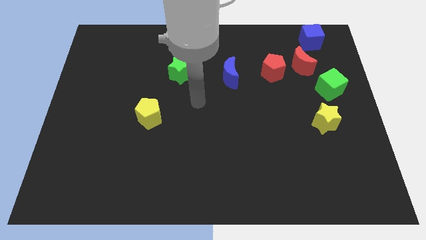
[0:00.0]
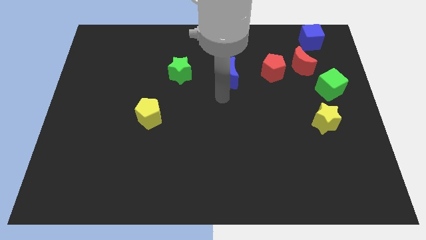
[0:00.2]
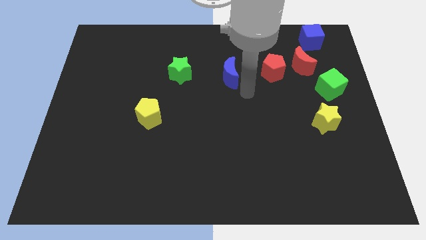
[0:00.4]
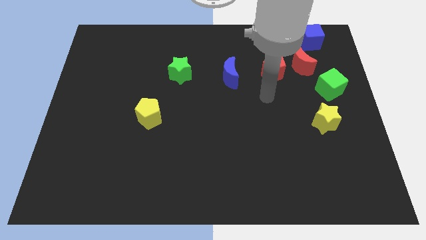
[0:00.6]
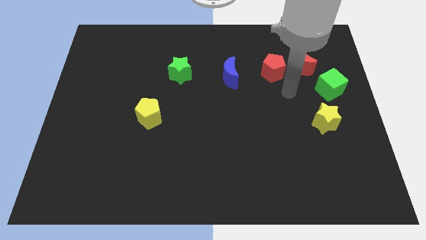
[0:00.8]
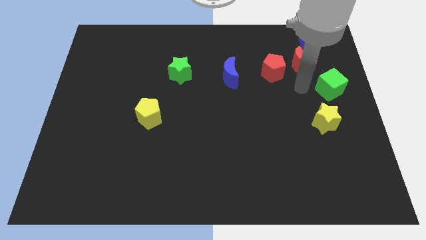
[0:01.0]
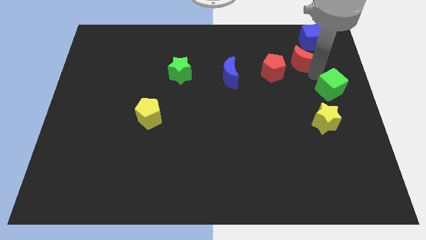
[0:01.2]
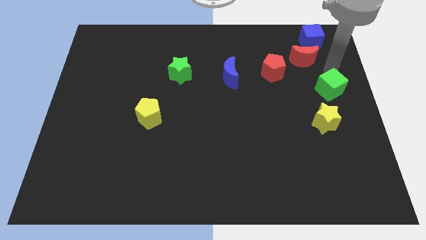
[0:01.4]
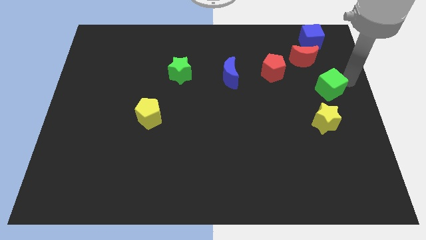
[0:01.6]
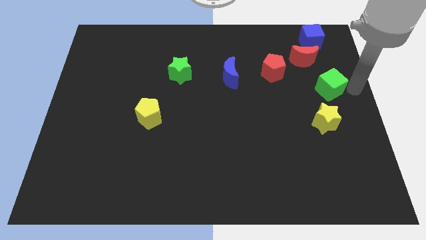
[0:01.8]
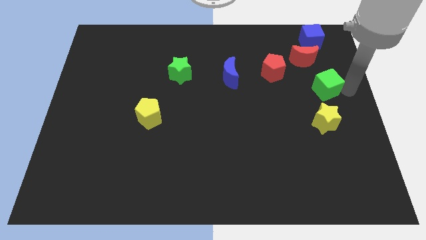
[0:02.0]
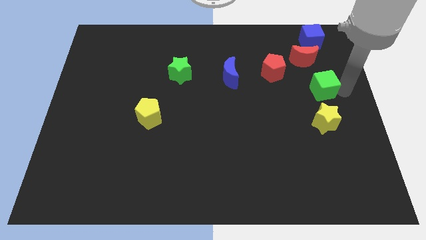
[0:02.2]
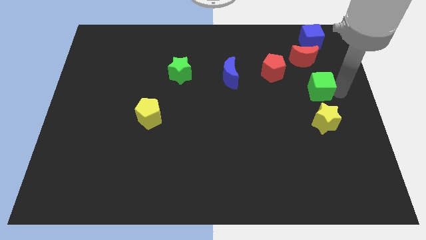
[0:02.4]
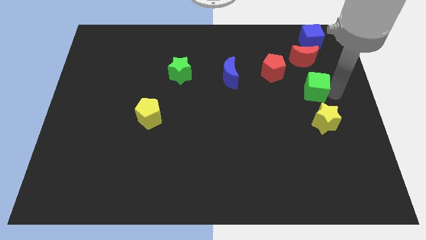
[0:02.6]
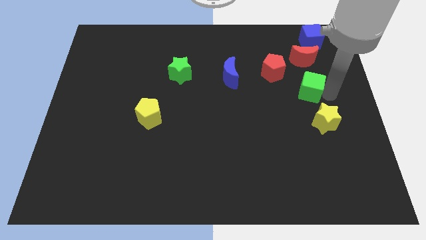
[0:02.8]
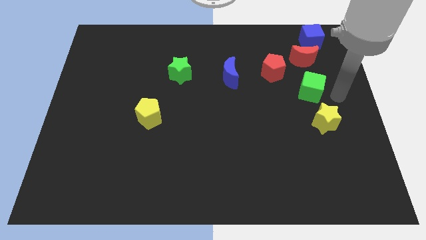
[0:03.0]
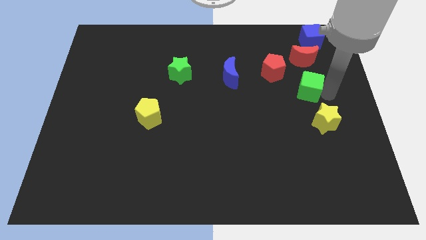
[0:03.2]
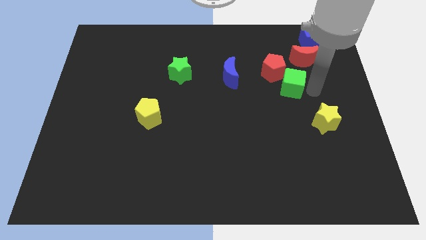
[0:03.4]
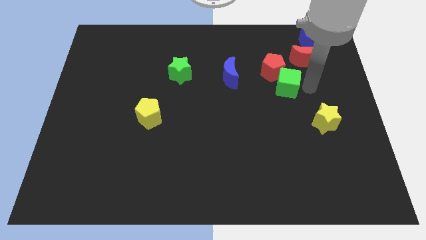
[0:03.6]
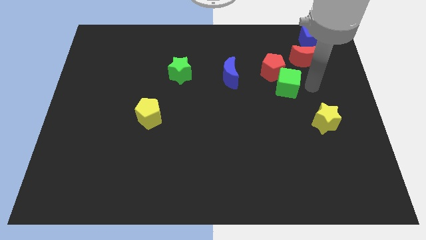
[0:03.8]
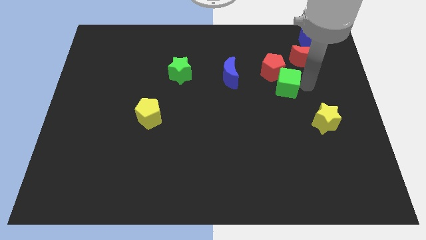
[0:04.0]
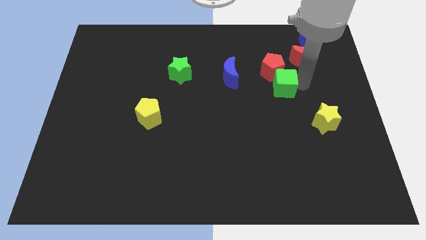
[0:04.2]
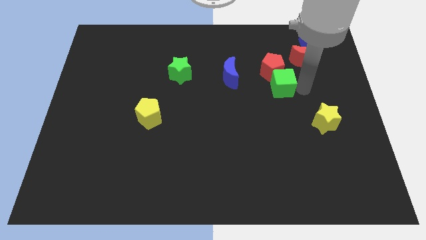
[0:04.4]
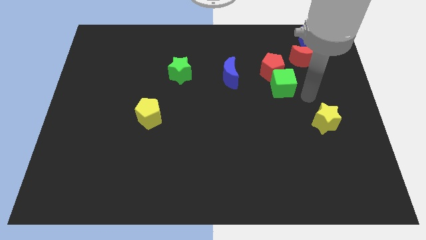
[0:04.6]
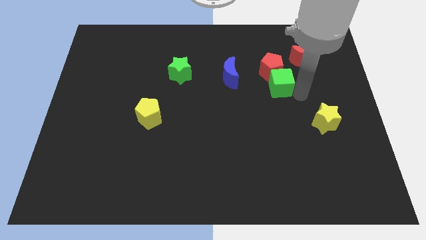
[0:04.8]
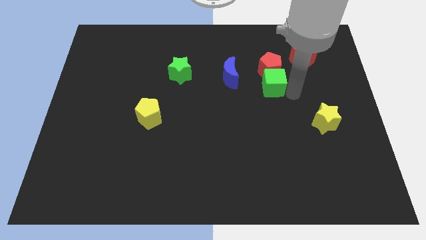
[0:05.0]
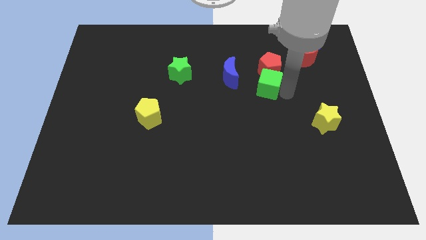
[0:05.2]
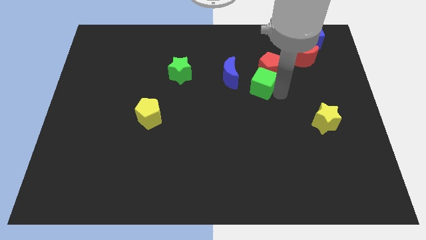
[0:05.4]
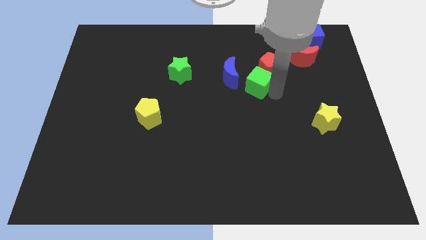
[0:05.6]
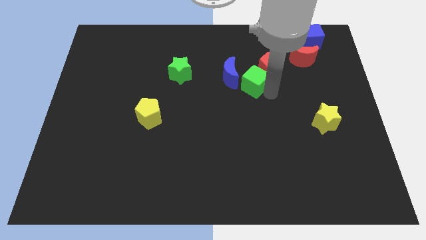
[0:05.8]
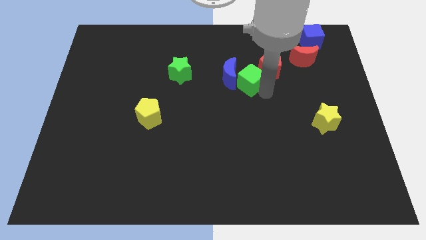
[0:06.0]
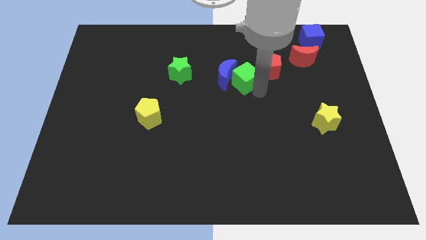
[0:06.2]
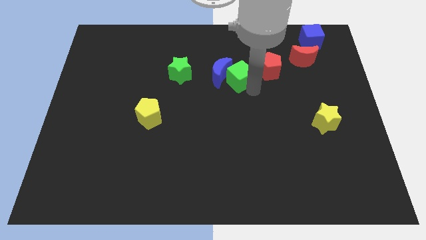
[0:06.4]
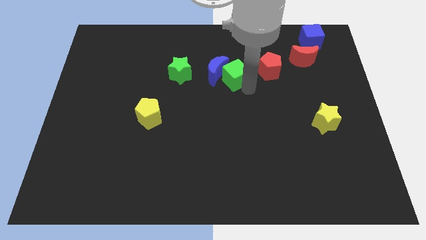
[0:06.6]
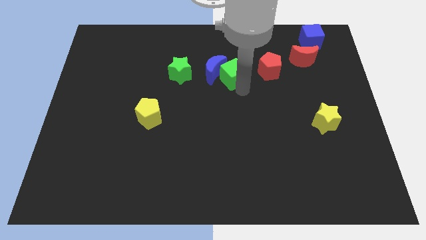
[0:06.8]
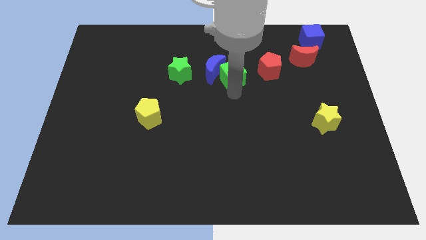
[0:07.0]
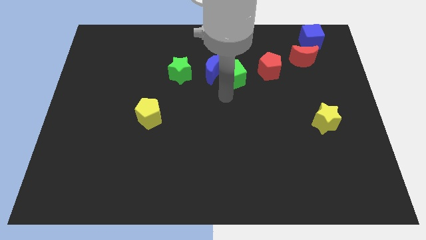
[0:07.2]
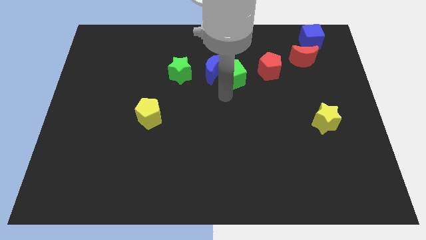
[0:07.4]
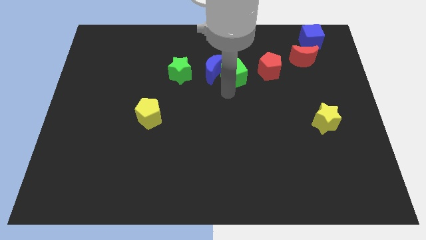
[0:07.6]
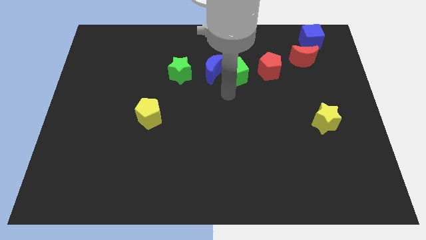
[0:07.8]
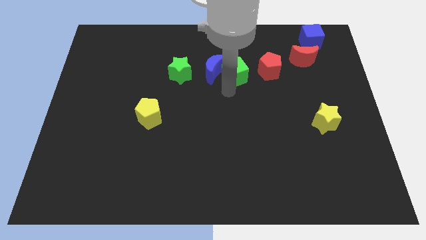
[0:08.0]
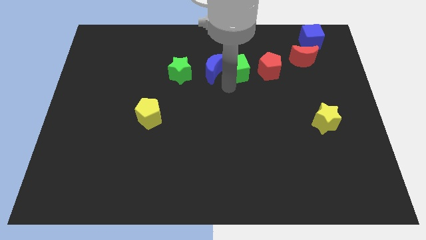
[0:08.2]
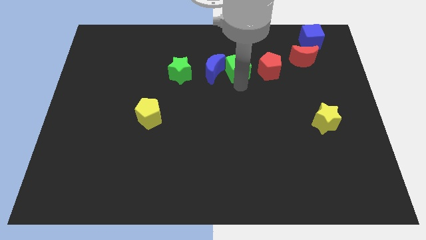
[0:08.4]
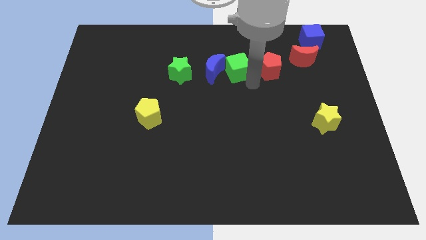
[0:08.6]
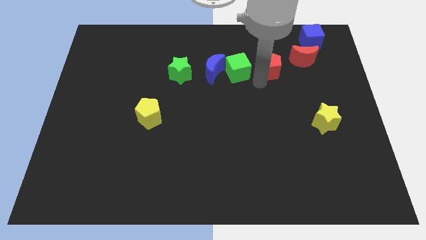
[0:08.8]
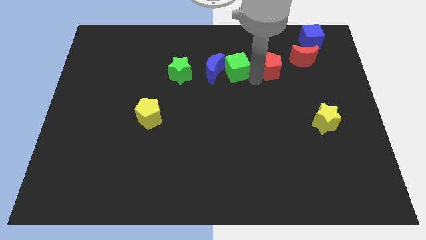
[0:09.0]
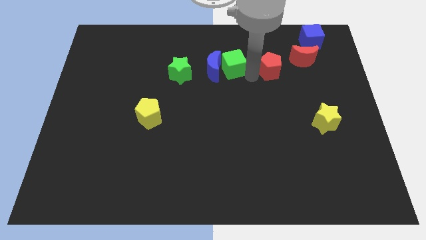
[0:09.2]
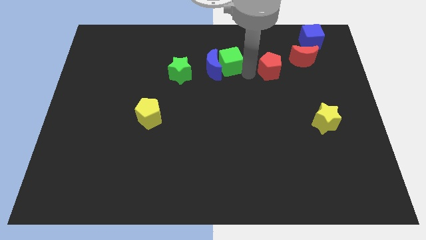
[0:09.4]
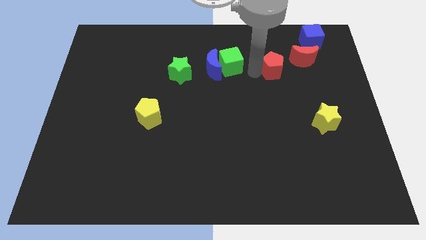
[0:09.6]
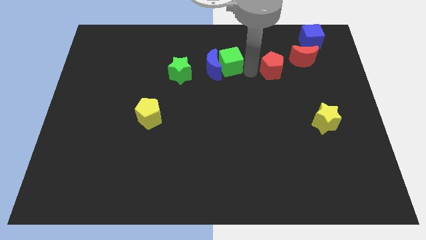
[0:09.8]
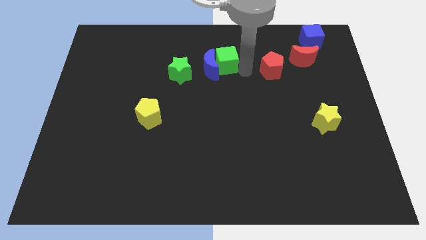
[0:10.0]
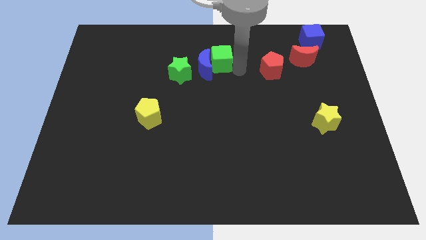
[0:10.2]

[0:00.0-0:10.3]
slide the green cube to the top right side of the green star

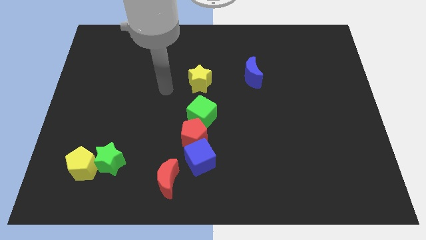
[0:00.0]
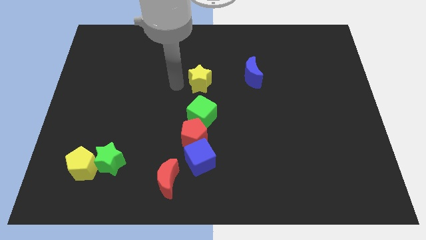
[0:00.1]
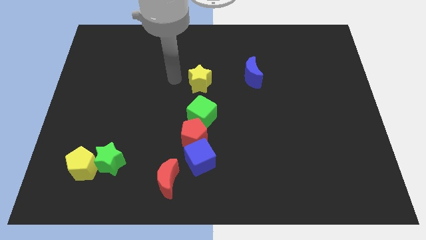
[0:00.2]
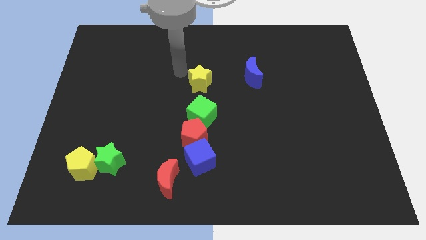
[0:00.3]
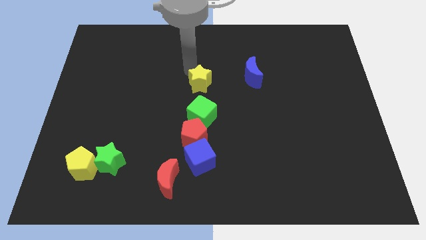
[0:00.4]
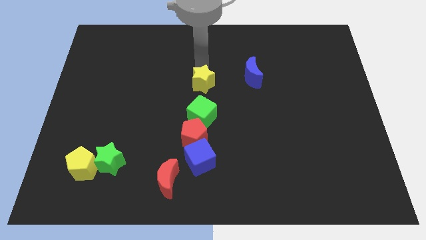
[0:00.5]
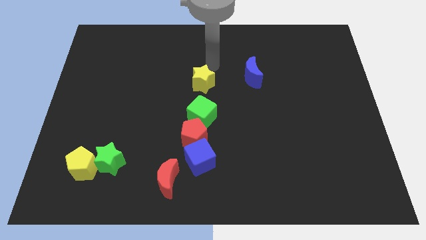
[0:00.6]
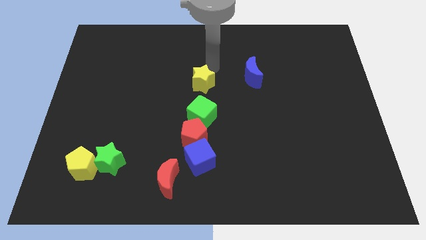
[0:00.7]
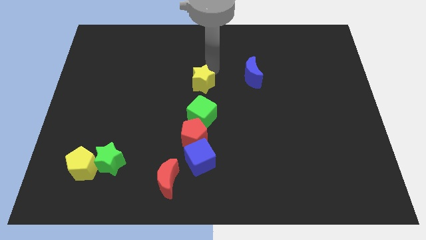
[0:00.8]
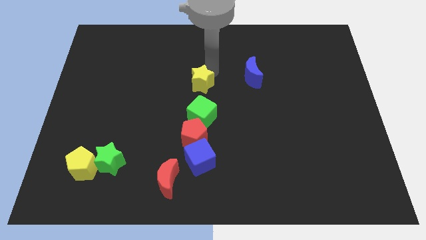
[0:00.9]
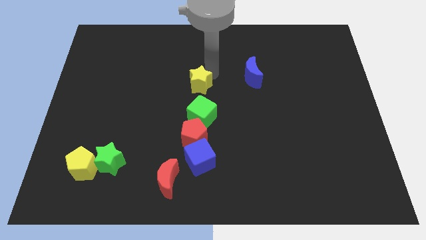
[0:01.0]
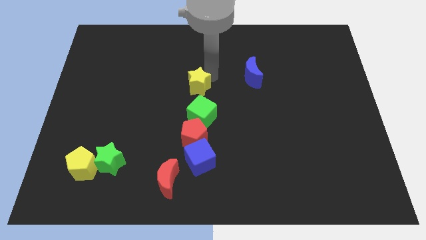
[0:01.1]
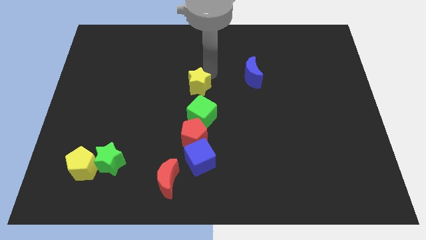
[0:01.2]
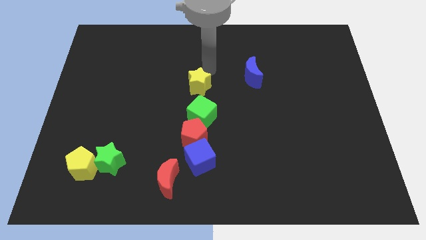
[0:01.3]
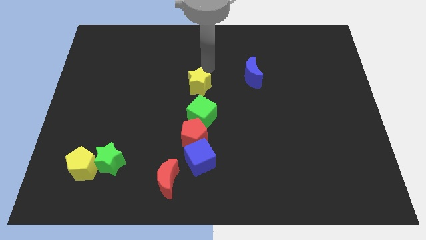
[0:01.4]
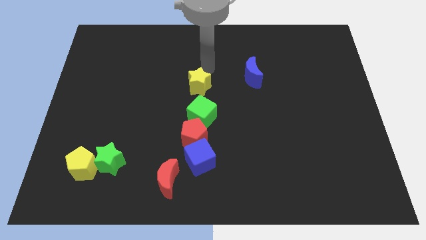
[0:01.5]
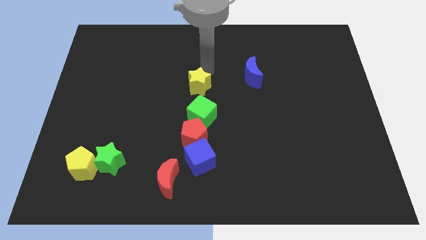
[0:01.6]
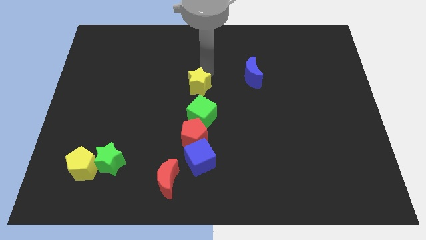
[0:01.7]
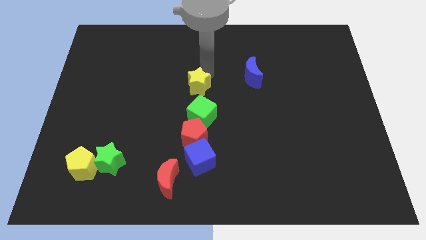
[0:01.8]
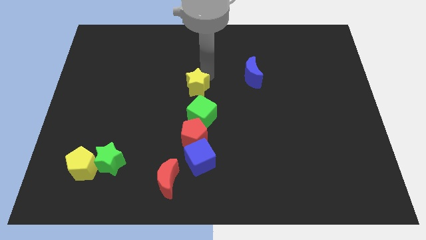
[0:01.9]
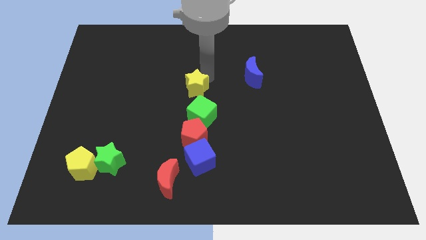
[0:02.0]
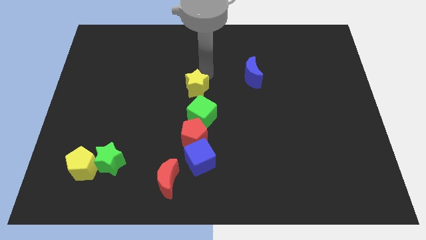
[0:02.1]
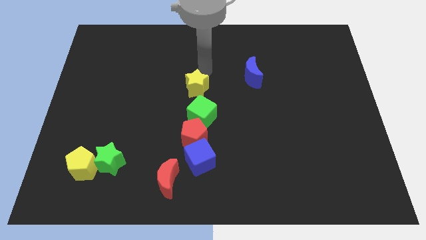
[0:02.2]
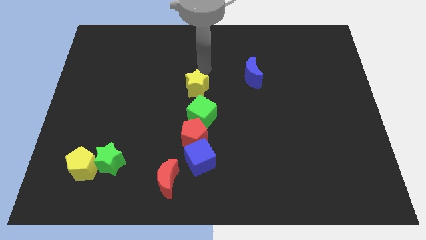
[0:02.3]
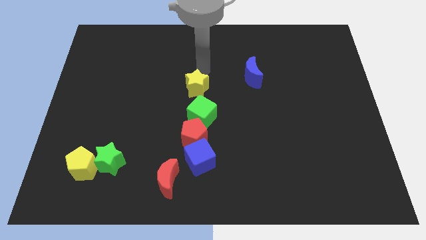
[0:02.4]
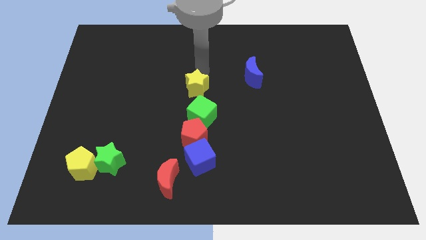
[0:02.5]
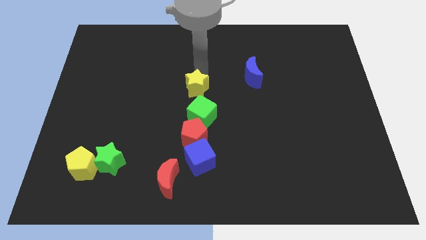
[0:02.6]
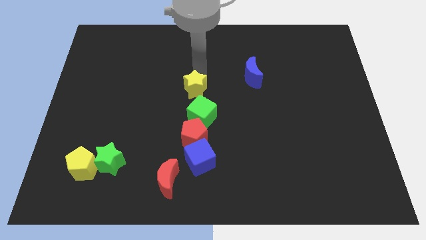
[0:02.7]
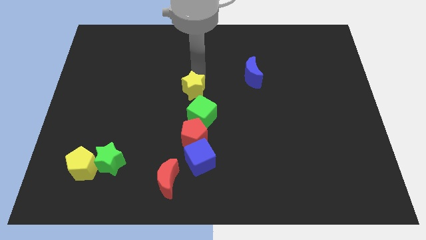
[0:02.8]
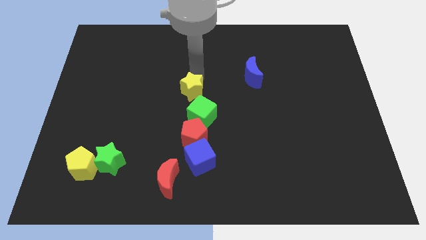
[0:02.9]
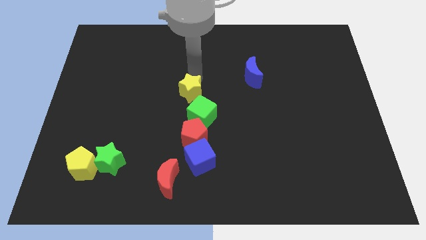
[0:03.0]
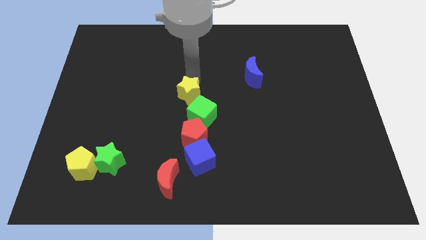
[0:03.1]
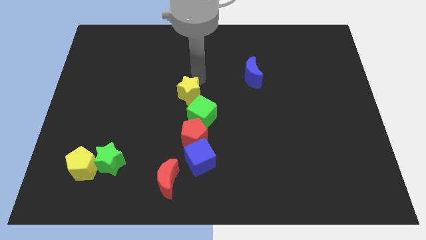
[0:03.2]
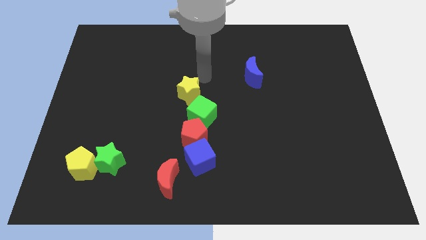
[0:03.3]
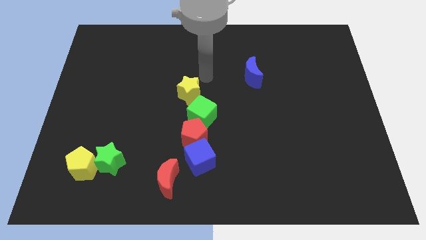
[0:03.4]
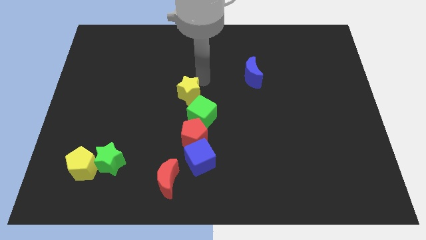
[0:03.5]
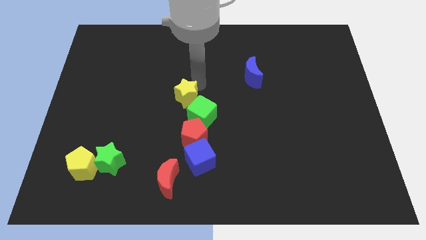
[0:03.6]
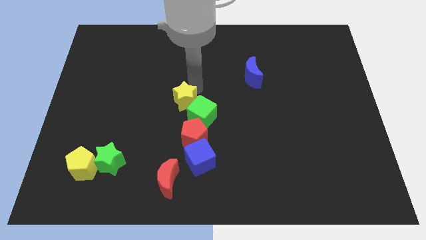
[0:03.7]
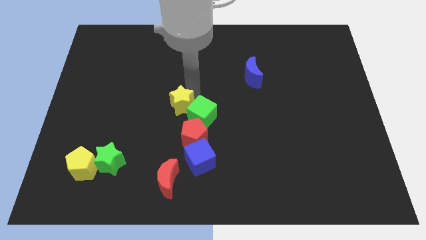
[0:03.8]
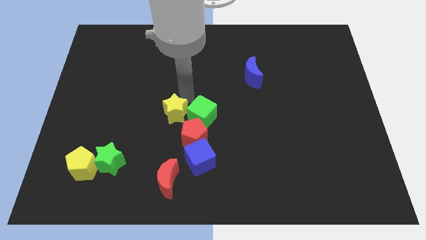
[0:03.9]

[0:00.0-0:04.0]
put the yellow star diagonally down and to the left of the green cube
